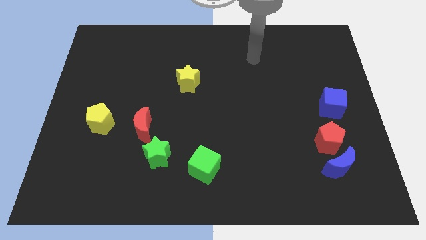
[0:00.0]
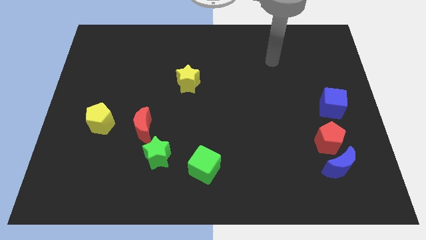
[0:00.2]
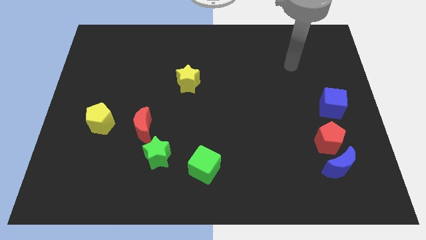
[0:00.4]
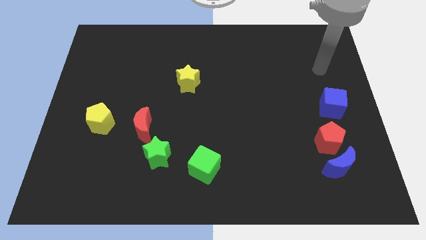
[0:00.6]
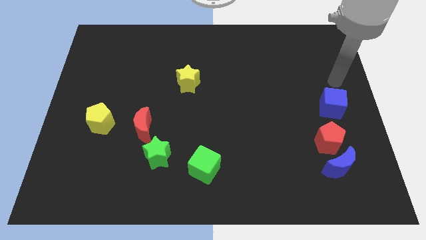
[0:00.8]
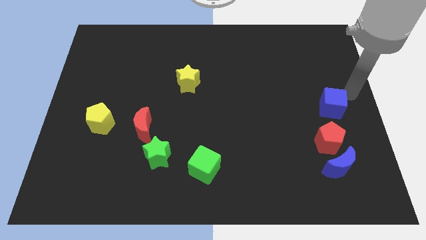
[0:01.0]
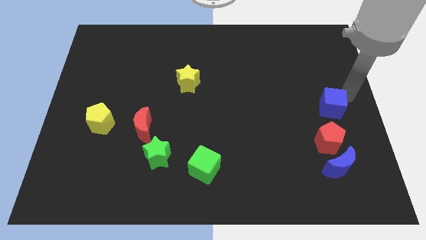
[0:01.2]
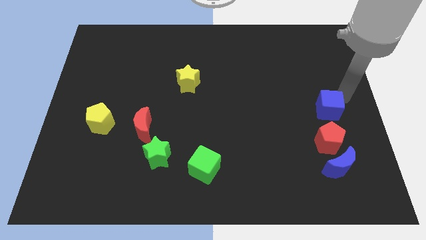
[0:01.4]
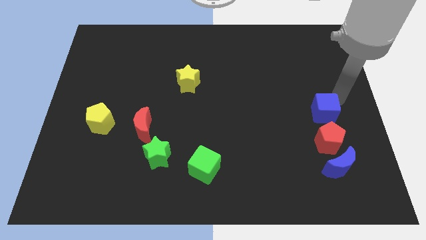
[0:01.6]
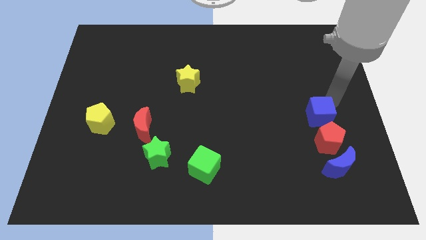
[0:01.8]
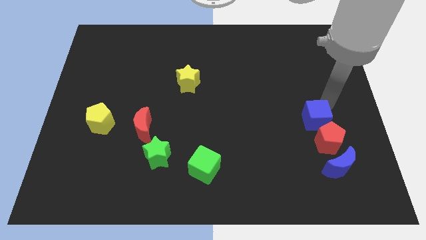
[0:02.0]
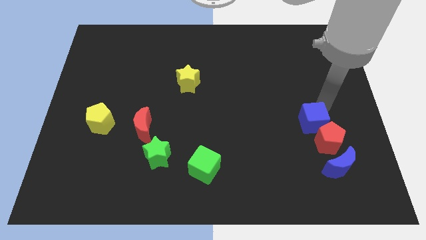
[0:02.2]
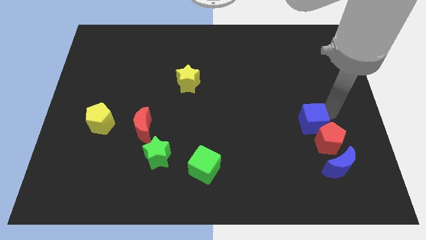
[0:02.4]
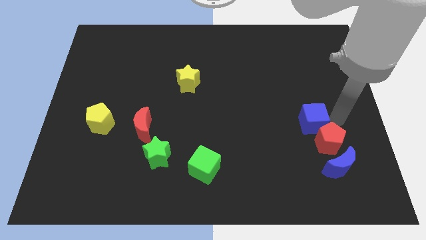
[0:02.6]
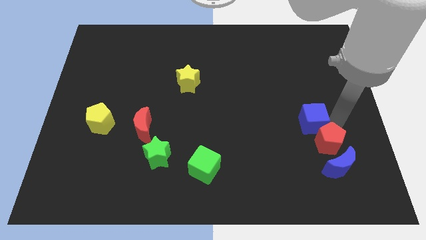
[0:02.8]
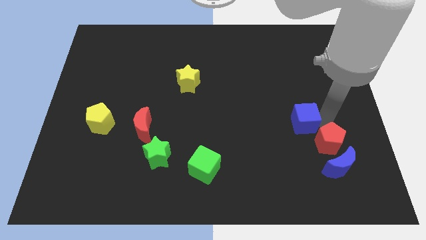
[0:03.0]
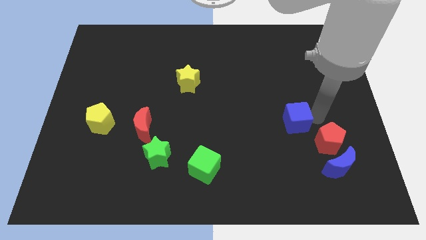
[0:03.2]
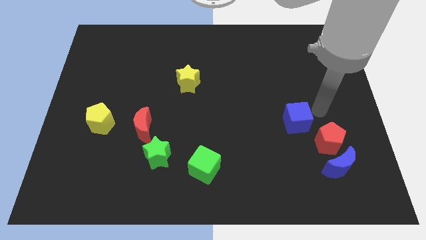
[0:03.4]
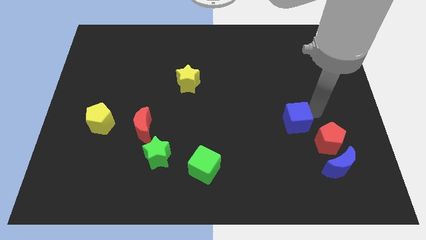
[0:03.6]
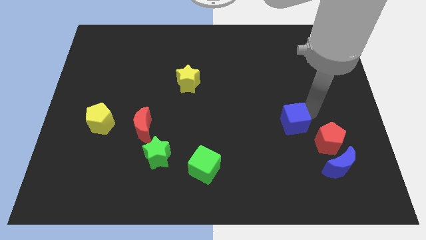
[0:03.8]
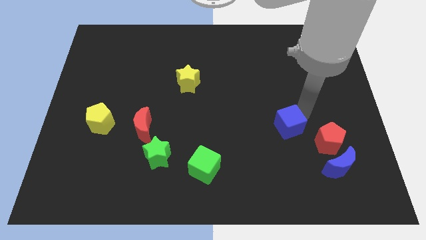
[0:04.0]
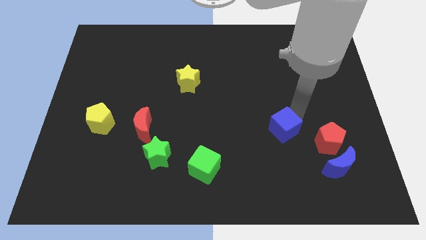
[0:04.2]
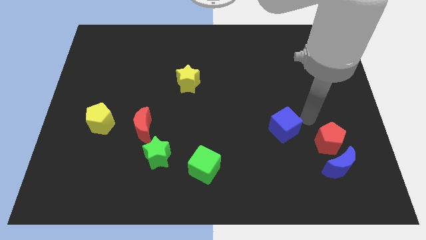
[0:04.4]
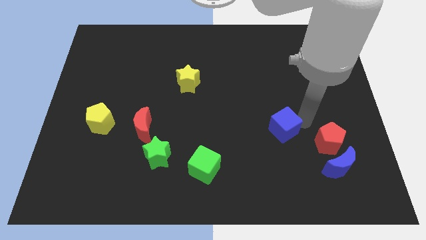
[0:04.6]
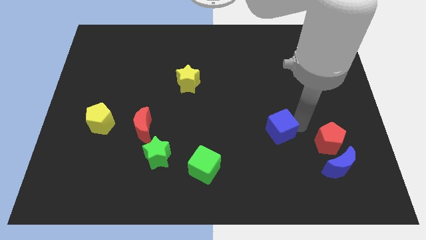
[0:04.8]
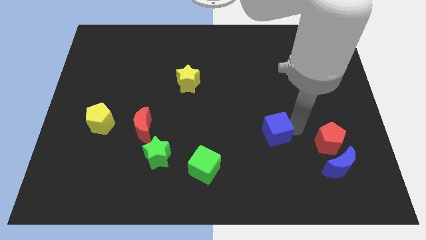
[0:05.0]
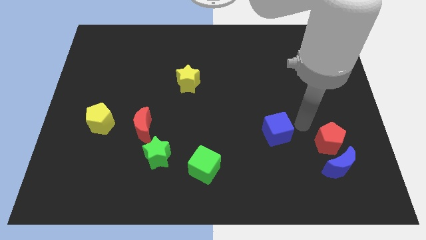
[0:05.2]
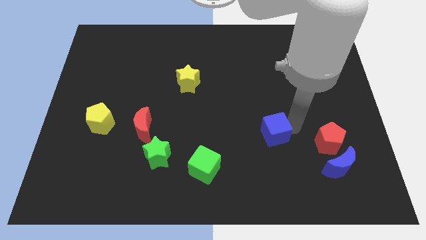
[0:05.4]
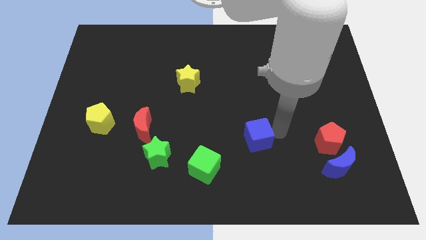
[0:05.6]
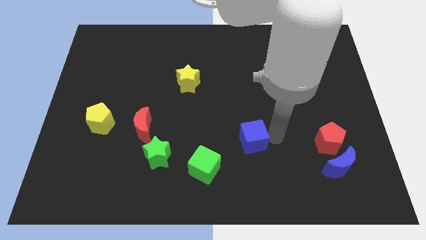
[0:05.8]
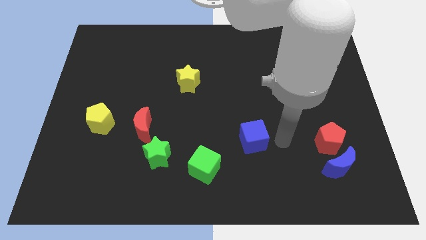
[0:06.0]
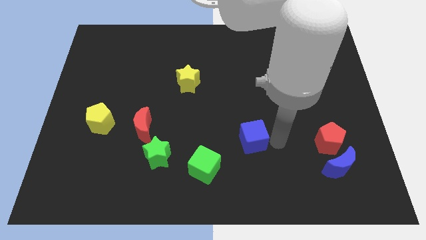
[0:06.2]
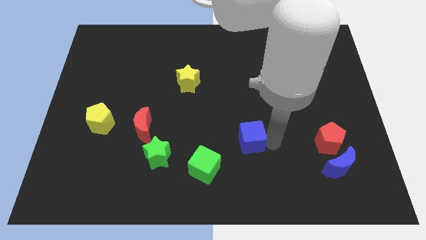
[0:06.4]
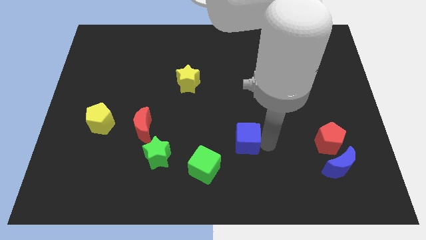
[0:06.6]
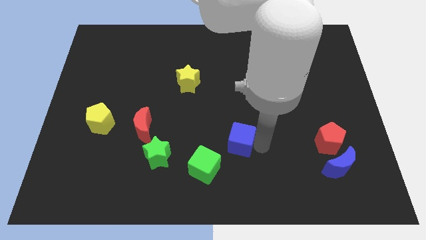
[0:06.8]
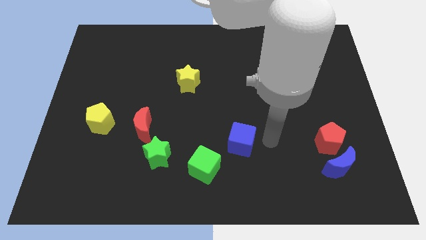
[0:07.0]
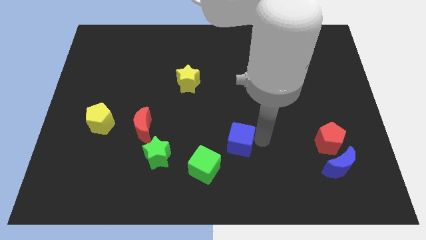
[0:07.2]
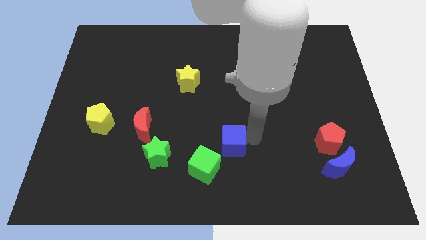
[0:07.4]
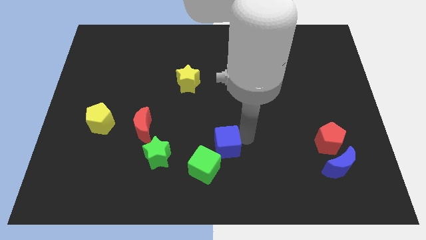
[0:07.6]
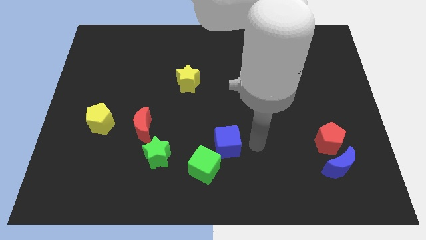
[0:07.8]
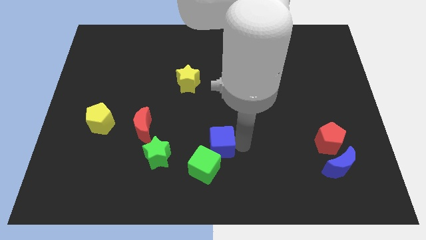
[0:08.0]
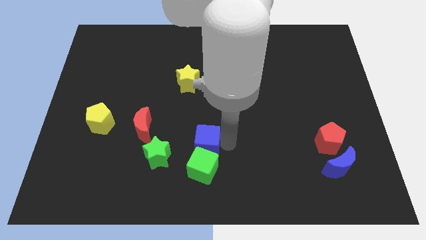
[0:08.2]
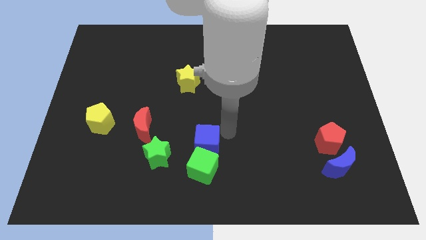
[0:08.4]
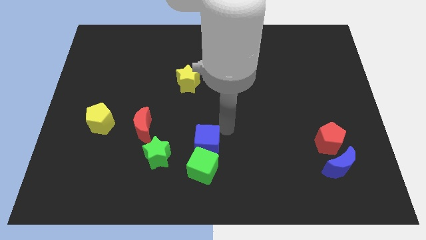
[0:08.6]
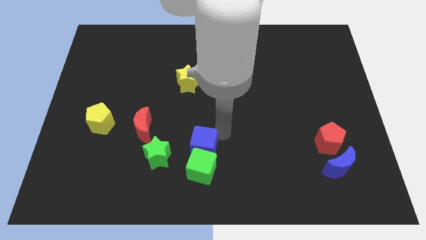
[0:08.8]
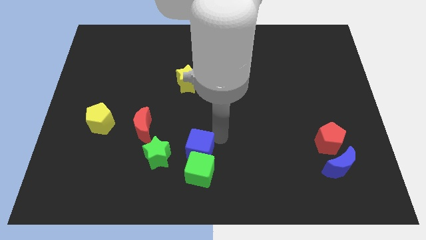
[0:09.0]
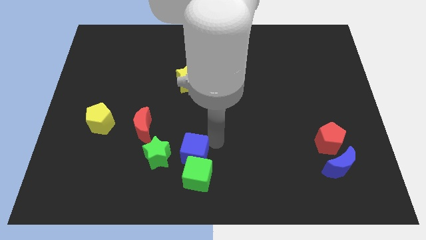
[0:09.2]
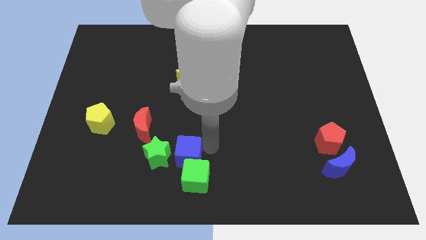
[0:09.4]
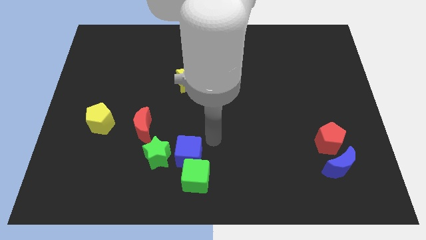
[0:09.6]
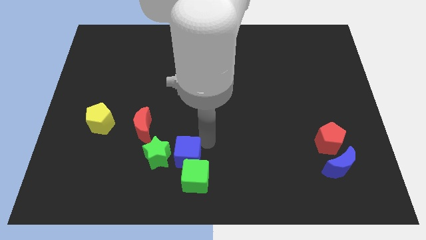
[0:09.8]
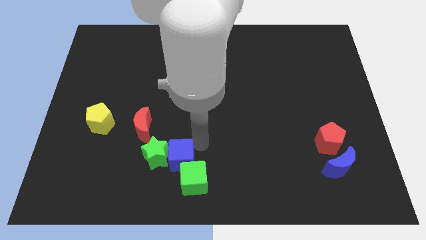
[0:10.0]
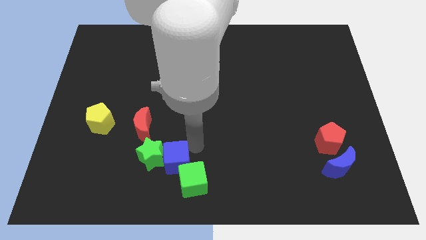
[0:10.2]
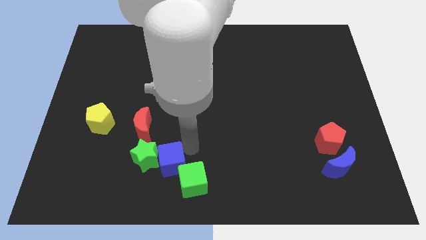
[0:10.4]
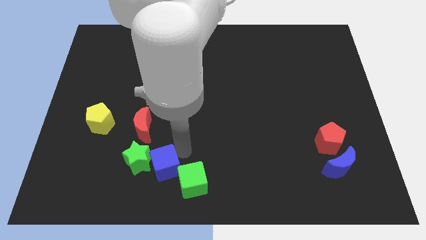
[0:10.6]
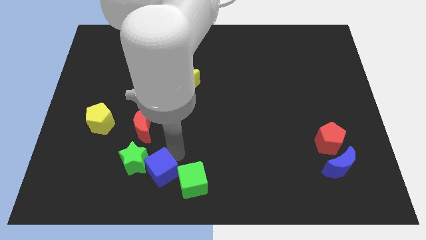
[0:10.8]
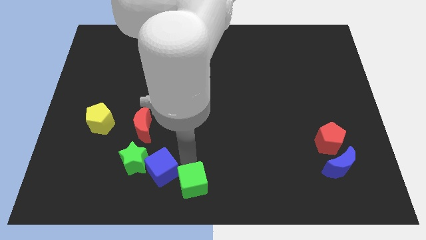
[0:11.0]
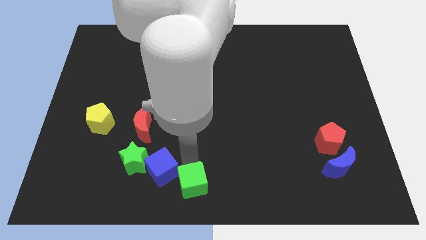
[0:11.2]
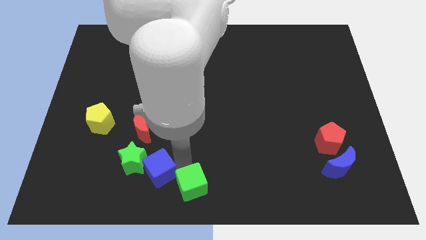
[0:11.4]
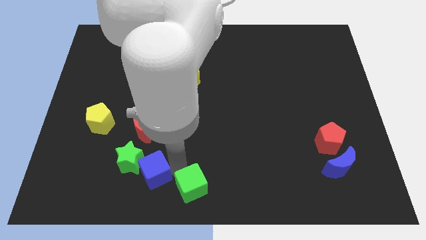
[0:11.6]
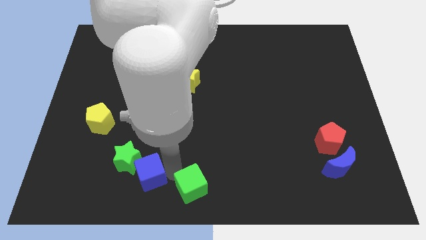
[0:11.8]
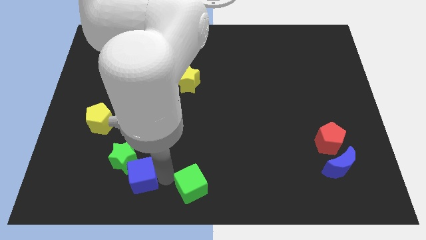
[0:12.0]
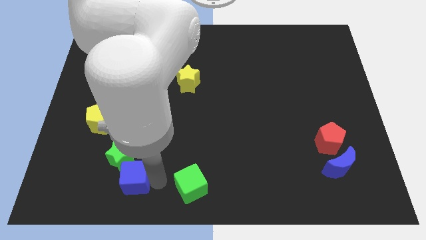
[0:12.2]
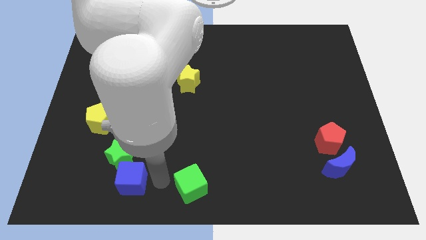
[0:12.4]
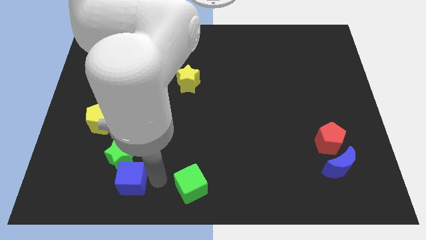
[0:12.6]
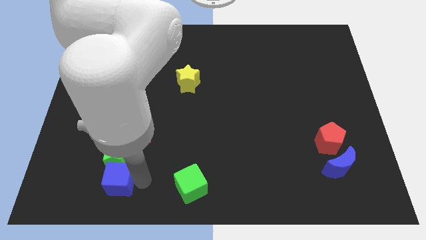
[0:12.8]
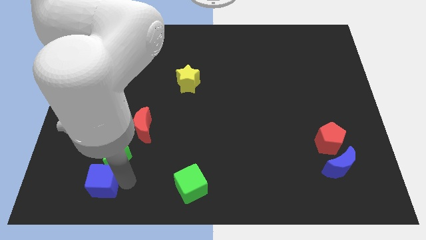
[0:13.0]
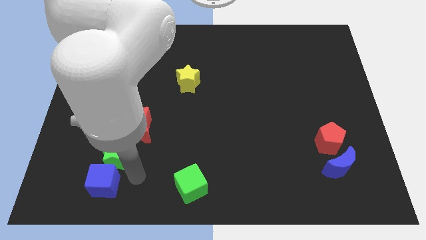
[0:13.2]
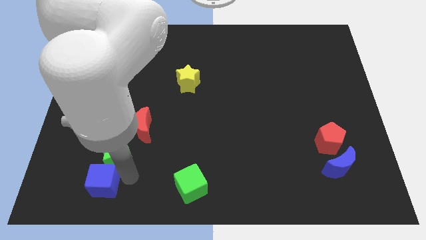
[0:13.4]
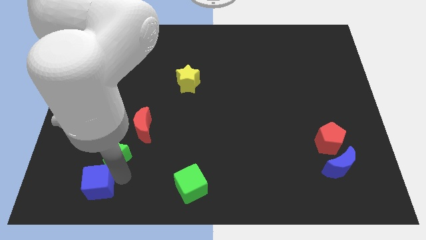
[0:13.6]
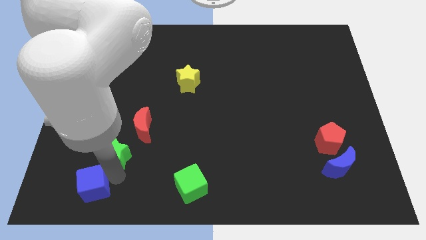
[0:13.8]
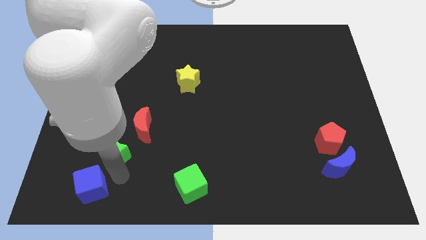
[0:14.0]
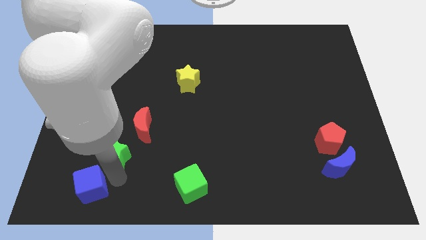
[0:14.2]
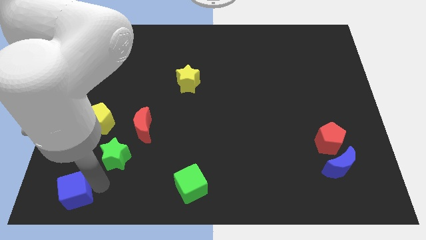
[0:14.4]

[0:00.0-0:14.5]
move the blue cube to the bottom left corner
